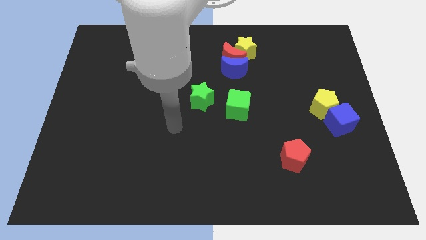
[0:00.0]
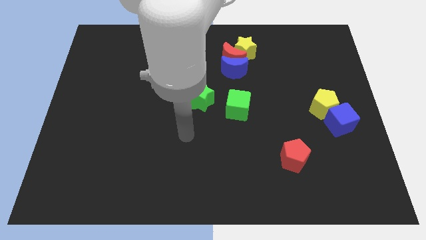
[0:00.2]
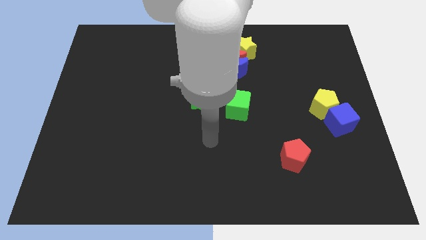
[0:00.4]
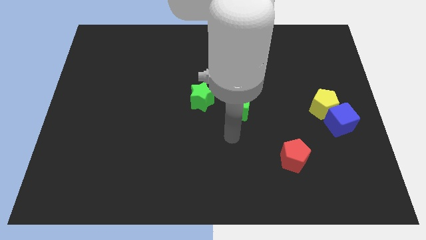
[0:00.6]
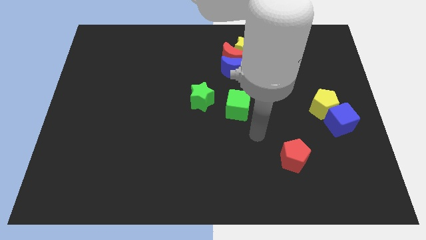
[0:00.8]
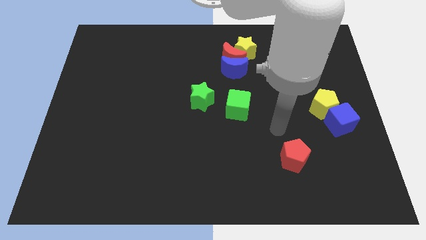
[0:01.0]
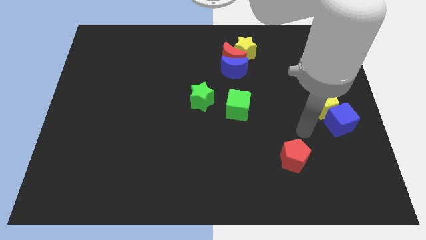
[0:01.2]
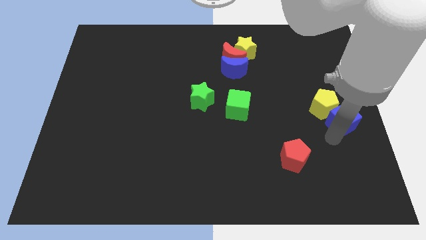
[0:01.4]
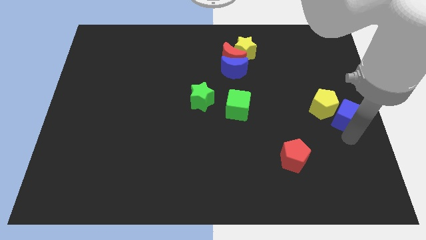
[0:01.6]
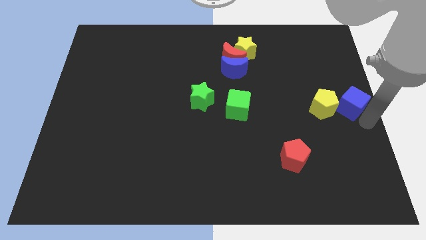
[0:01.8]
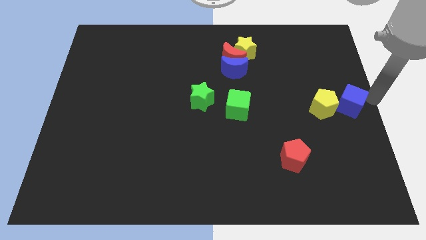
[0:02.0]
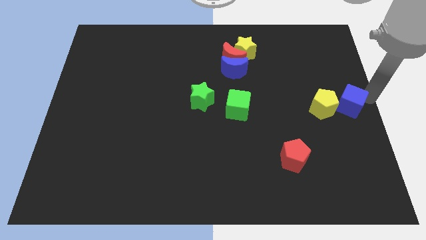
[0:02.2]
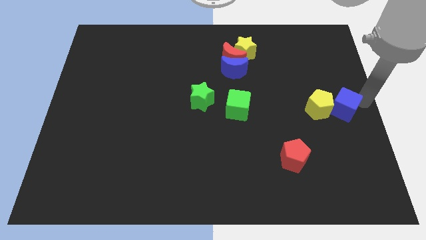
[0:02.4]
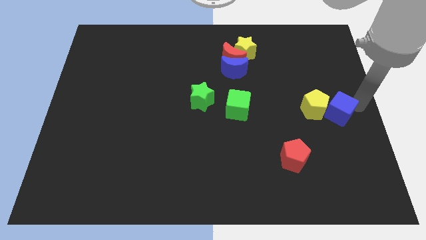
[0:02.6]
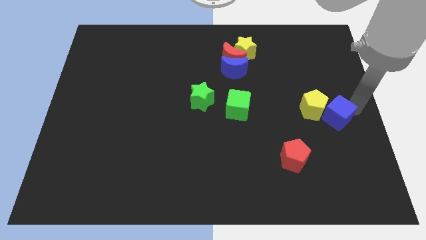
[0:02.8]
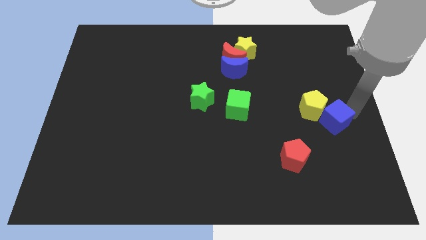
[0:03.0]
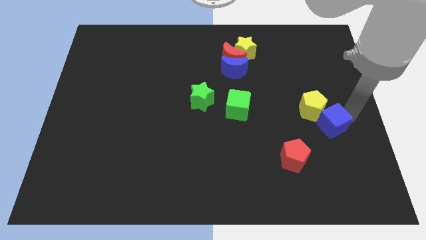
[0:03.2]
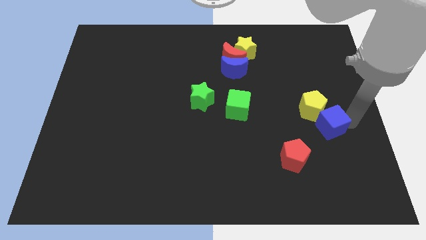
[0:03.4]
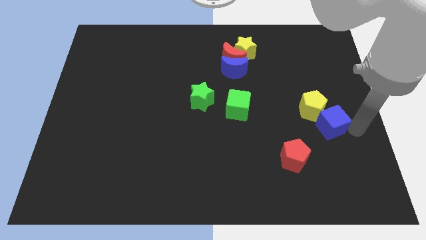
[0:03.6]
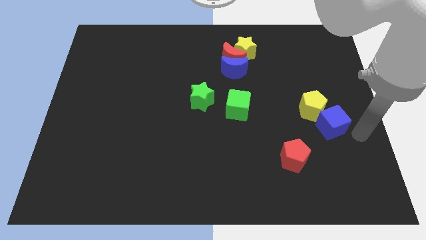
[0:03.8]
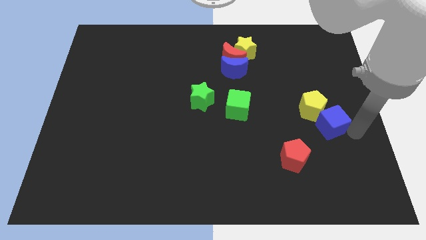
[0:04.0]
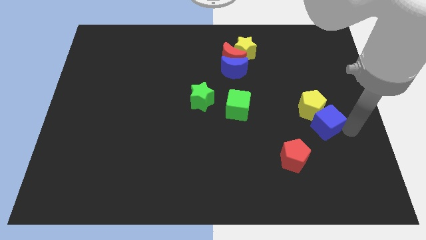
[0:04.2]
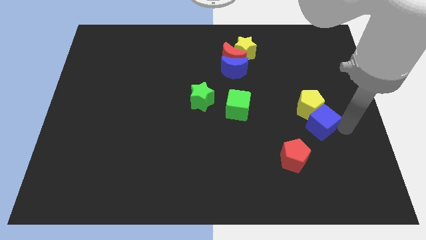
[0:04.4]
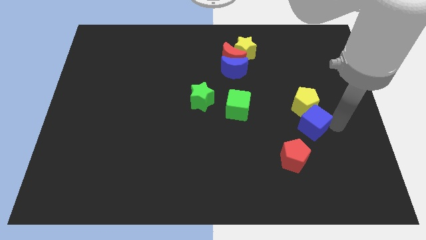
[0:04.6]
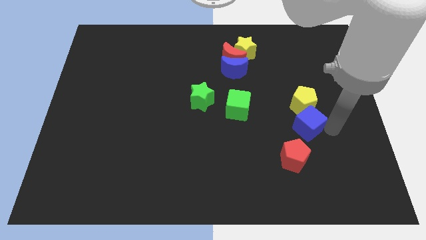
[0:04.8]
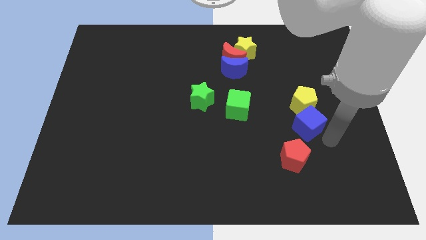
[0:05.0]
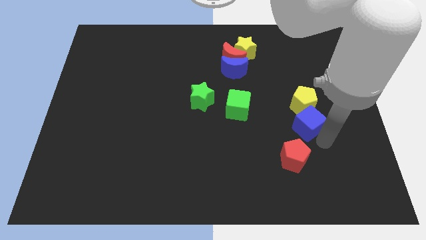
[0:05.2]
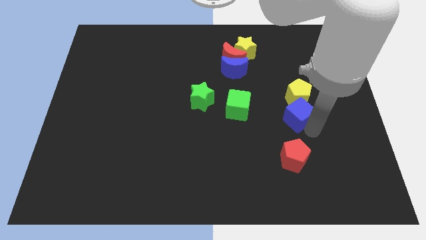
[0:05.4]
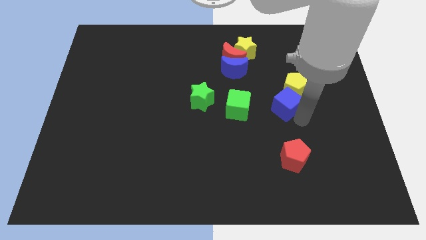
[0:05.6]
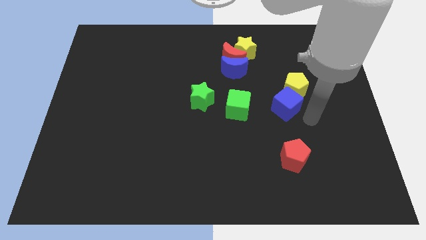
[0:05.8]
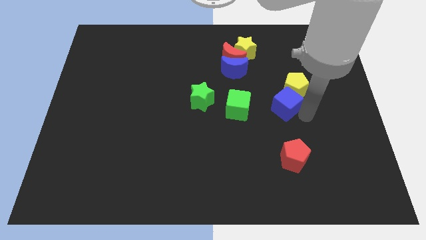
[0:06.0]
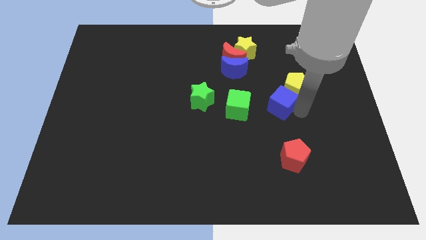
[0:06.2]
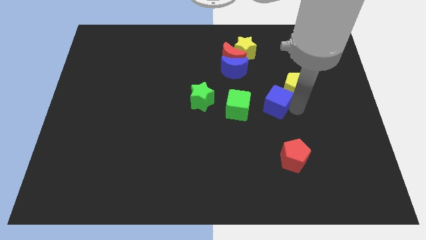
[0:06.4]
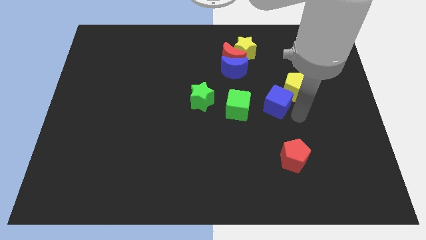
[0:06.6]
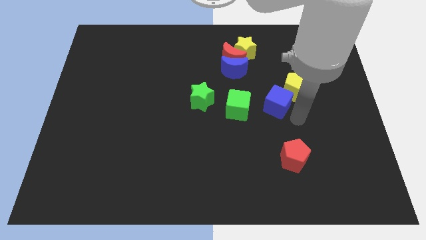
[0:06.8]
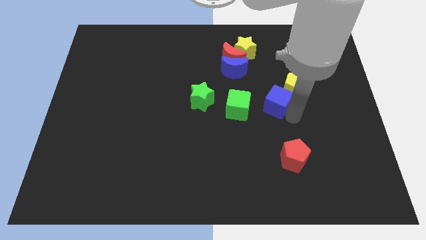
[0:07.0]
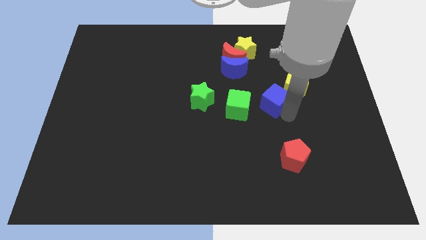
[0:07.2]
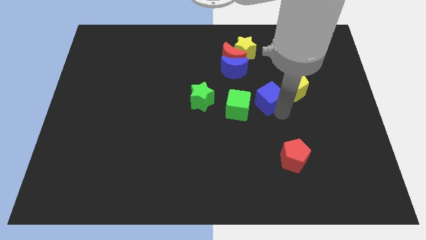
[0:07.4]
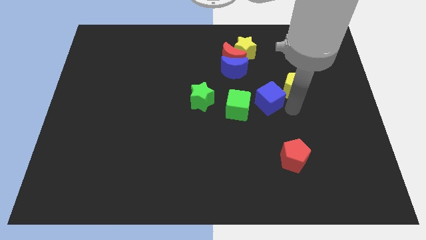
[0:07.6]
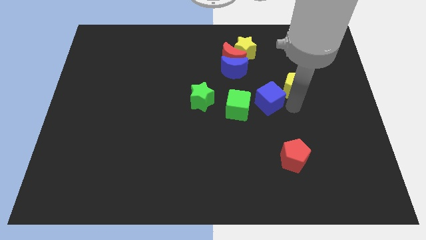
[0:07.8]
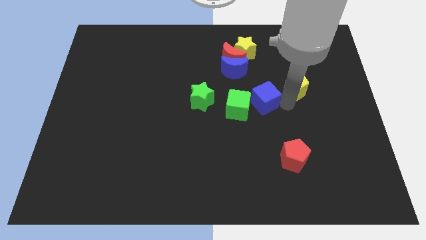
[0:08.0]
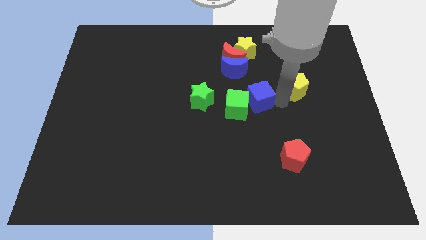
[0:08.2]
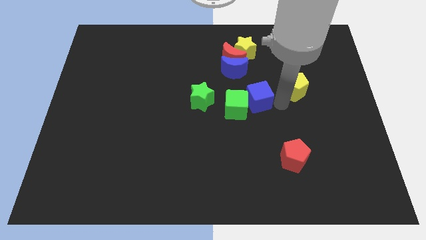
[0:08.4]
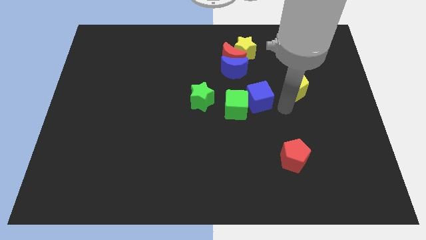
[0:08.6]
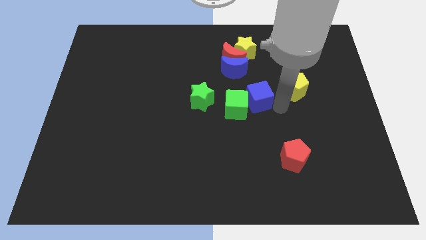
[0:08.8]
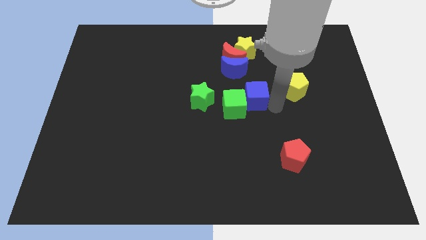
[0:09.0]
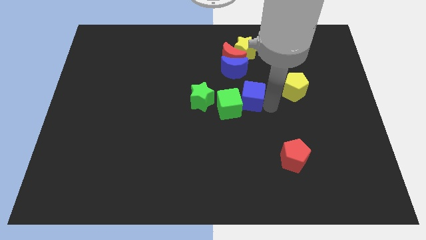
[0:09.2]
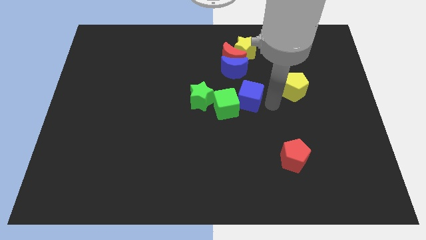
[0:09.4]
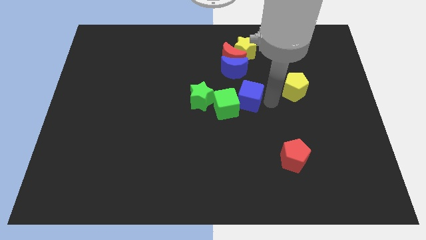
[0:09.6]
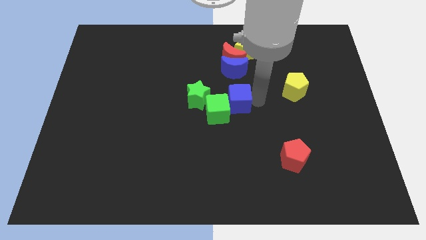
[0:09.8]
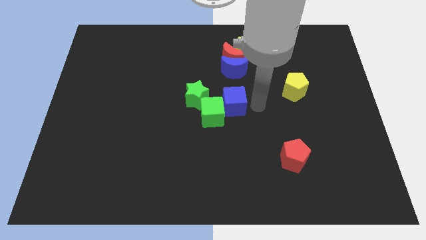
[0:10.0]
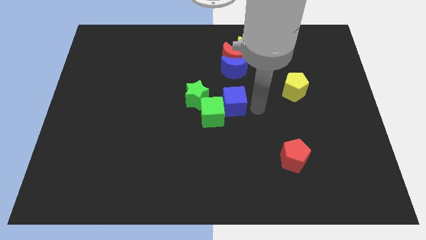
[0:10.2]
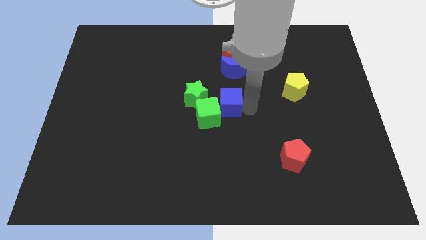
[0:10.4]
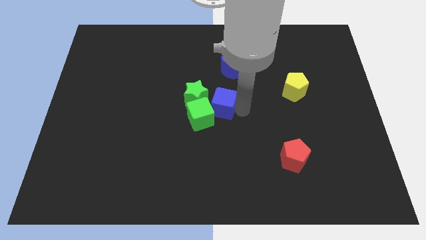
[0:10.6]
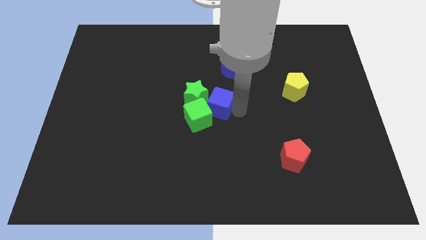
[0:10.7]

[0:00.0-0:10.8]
put the blue cube towards the green star

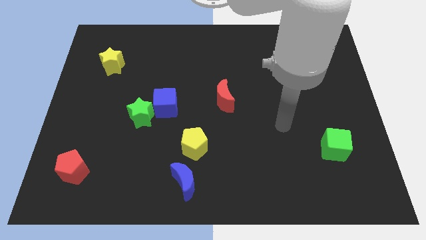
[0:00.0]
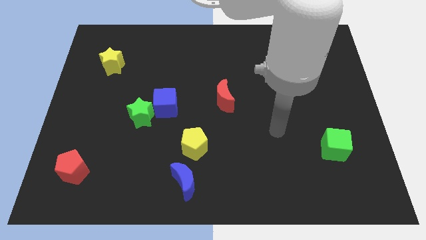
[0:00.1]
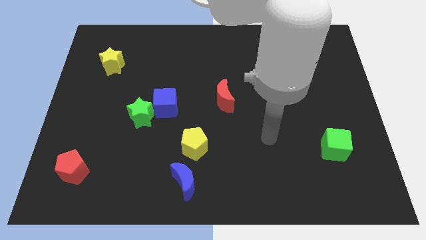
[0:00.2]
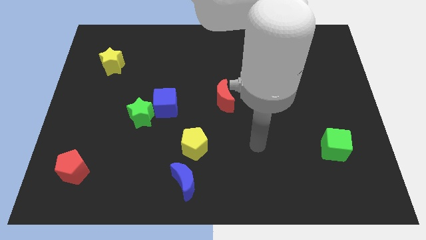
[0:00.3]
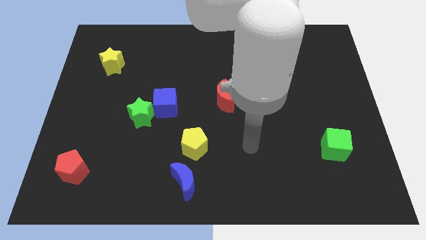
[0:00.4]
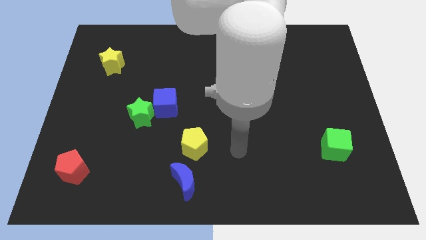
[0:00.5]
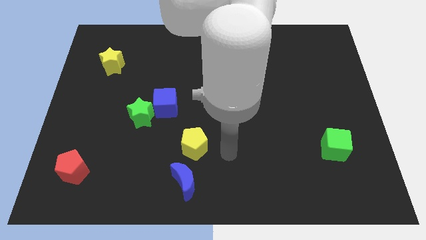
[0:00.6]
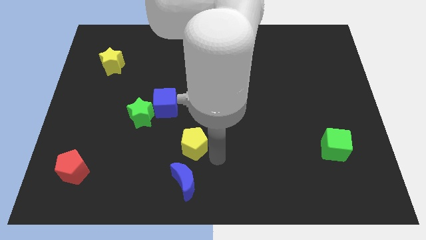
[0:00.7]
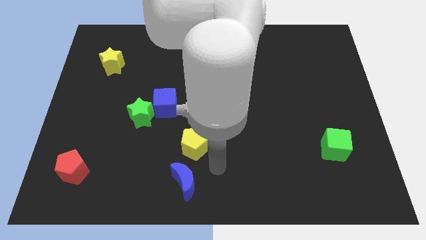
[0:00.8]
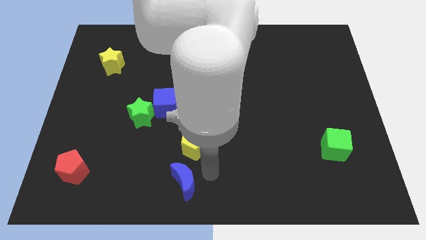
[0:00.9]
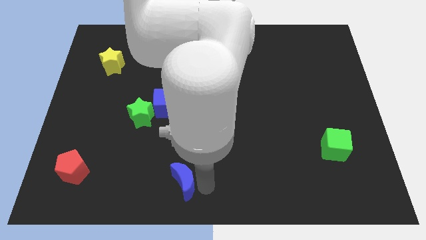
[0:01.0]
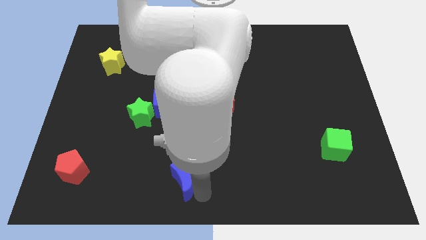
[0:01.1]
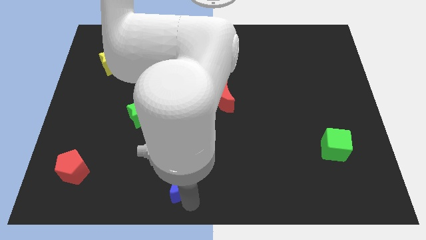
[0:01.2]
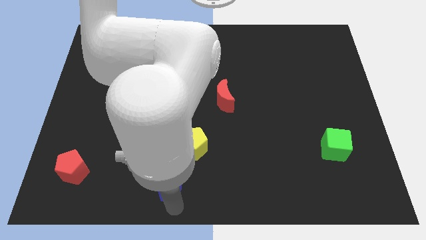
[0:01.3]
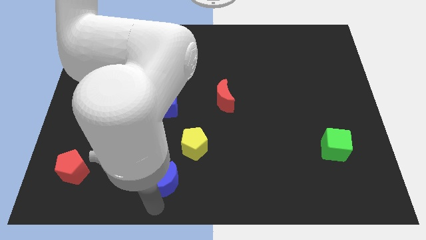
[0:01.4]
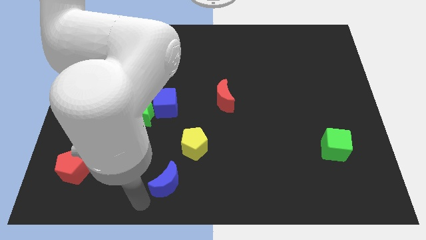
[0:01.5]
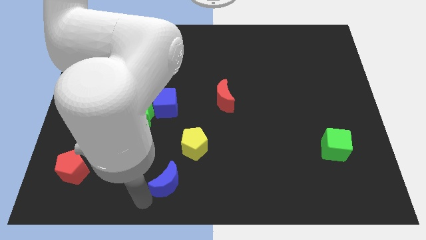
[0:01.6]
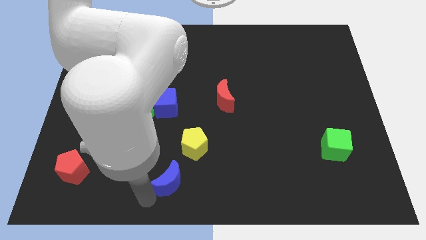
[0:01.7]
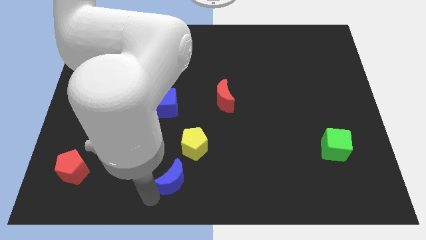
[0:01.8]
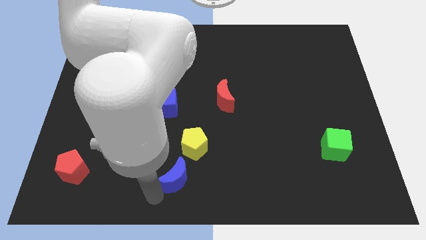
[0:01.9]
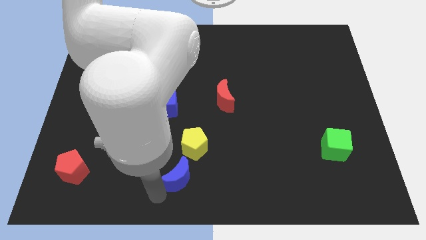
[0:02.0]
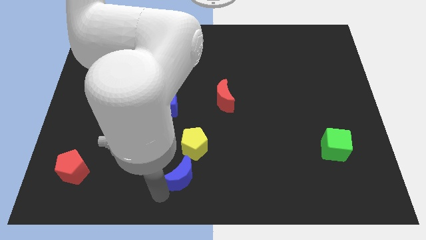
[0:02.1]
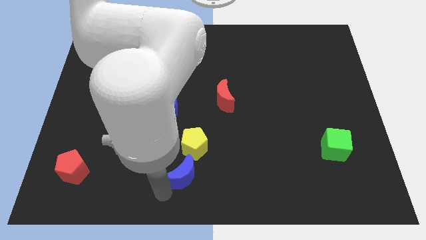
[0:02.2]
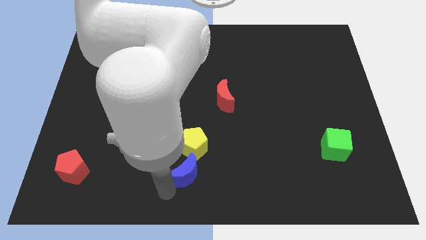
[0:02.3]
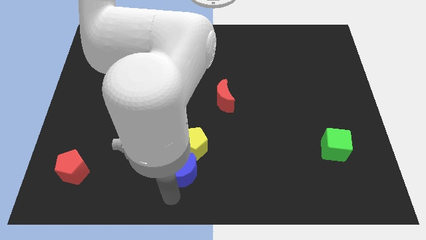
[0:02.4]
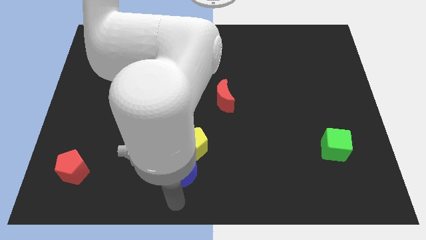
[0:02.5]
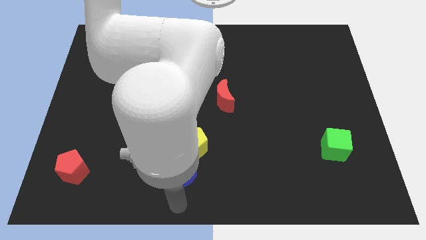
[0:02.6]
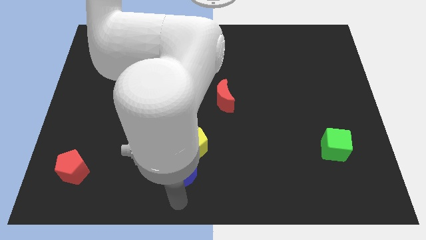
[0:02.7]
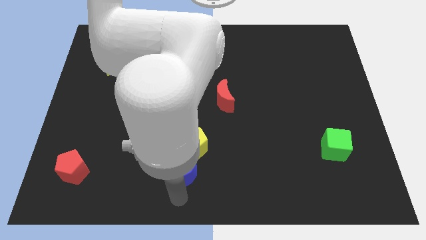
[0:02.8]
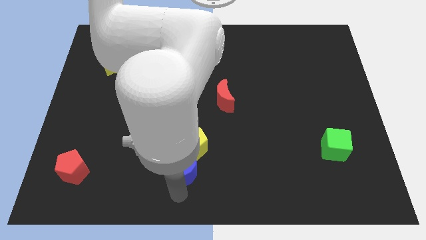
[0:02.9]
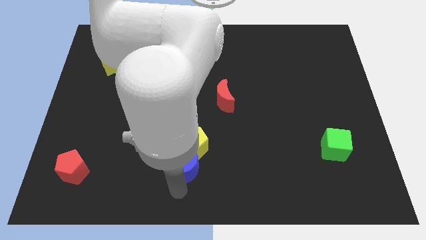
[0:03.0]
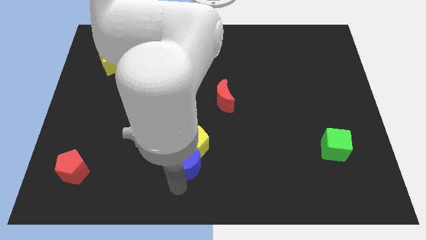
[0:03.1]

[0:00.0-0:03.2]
move the blue moon to the yellow pentagon
